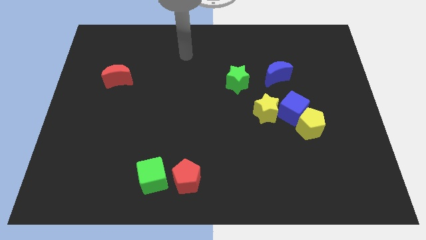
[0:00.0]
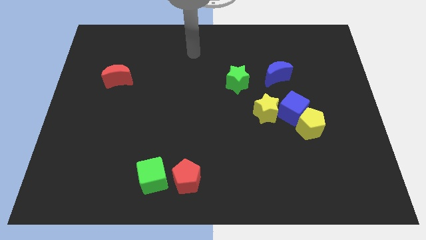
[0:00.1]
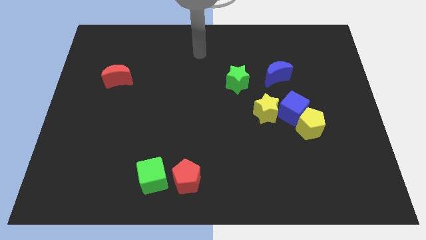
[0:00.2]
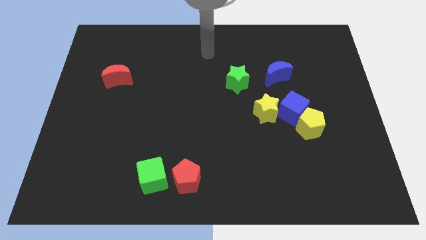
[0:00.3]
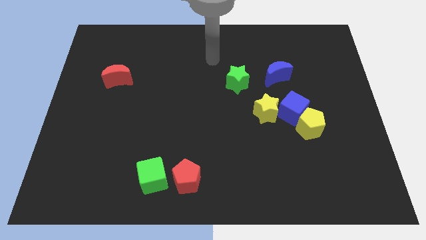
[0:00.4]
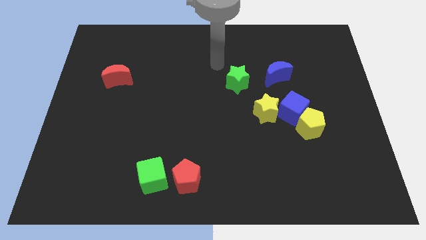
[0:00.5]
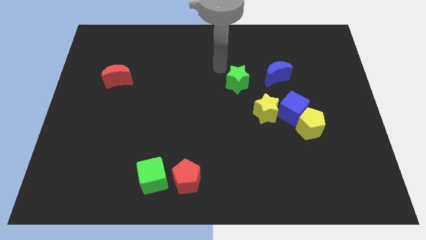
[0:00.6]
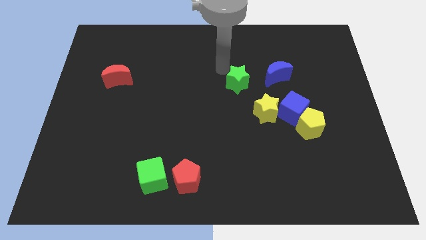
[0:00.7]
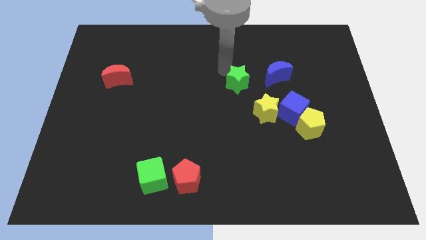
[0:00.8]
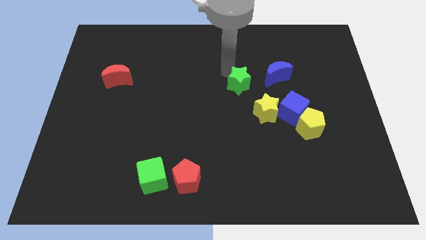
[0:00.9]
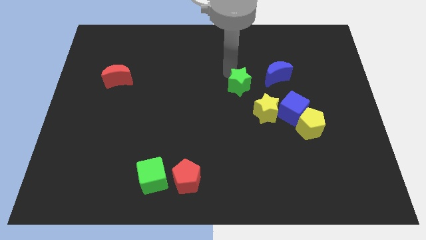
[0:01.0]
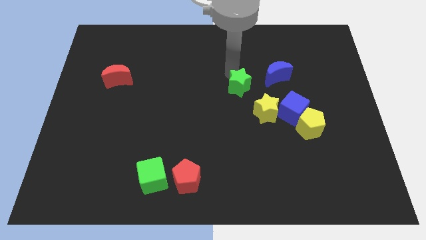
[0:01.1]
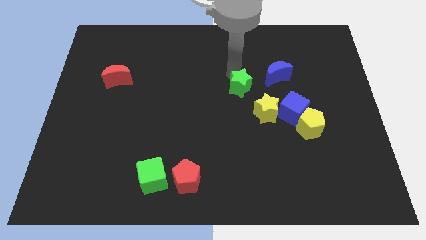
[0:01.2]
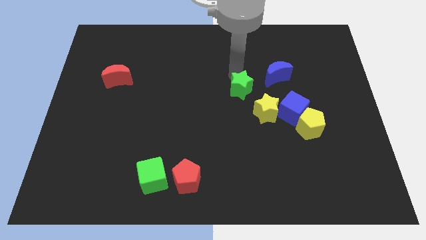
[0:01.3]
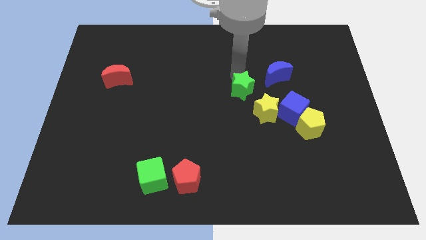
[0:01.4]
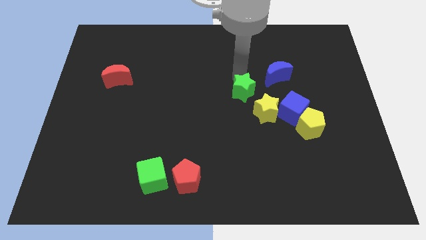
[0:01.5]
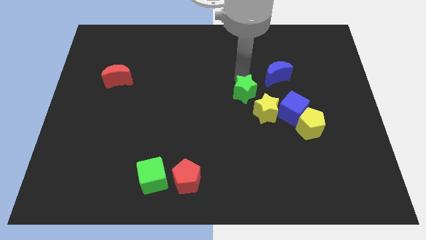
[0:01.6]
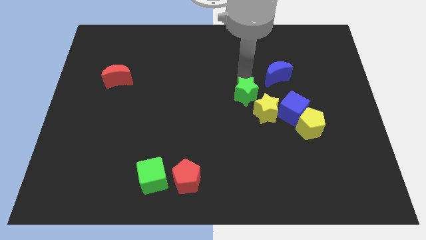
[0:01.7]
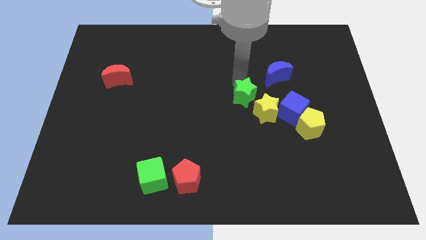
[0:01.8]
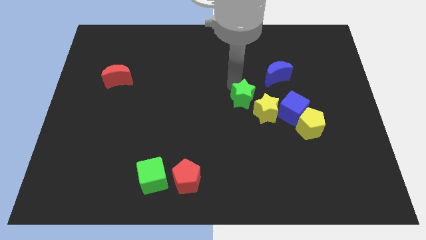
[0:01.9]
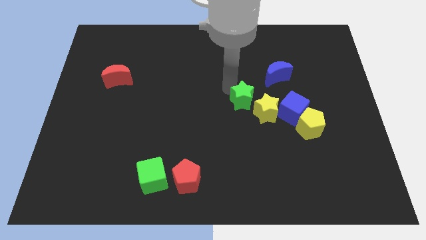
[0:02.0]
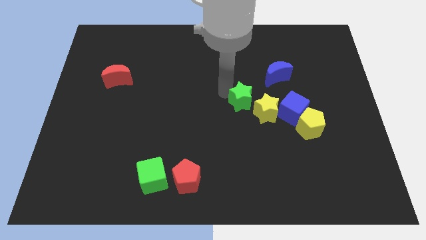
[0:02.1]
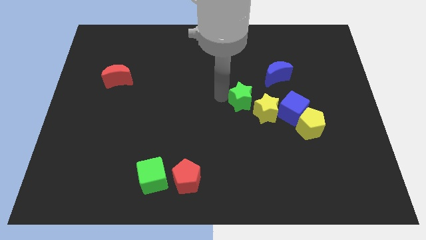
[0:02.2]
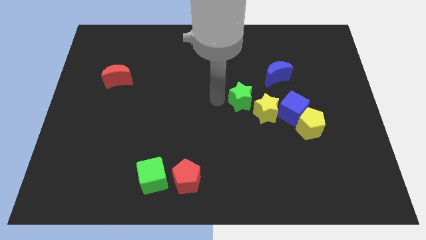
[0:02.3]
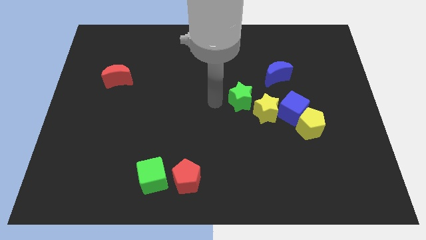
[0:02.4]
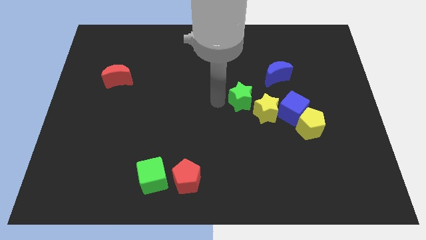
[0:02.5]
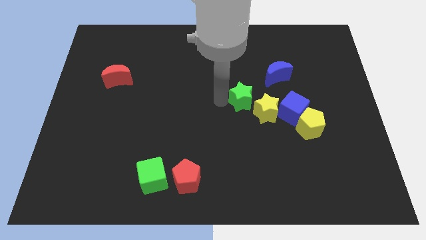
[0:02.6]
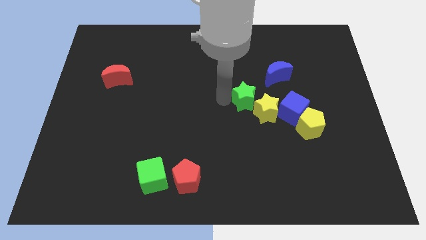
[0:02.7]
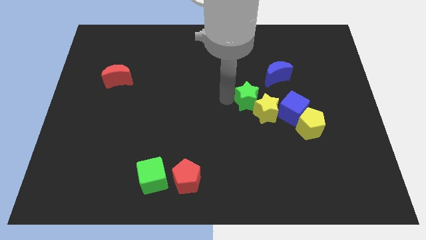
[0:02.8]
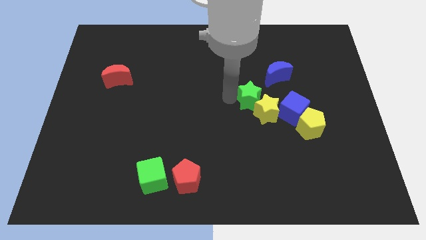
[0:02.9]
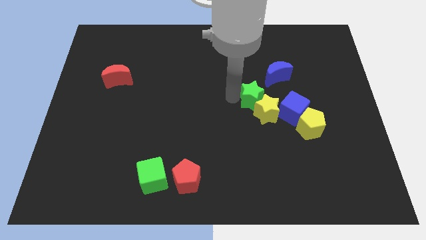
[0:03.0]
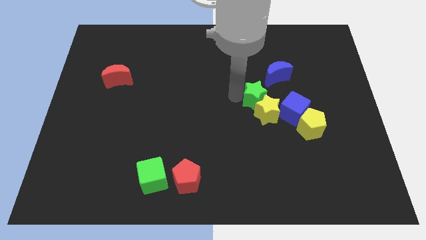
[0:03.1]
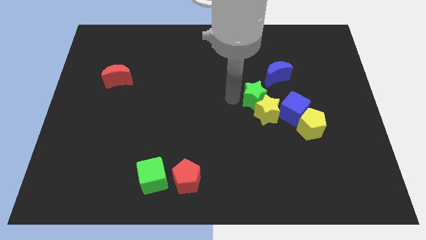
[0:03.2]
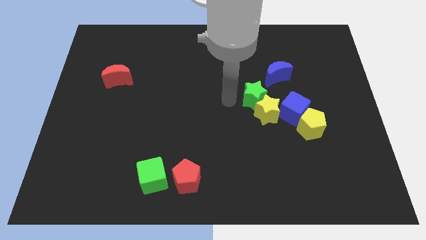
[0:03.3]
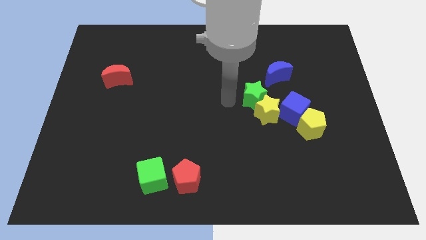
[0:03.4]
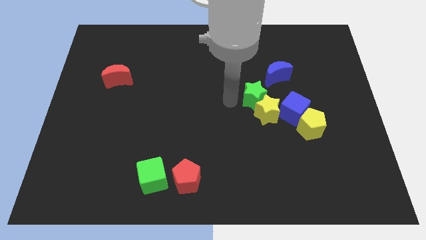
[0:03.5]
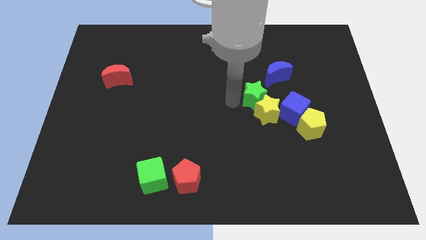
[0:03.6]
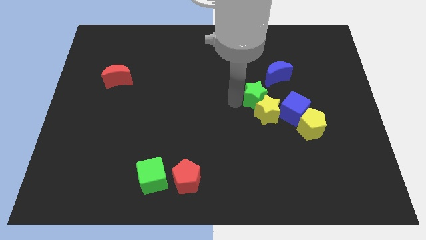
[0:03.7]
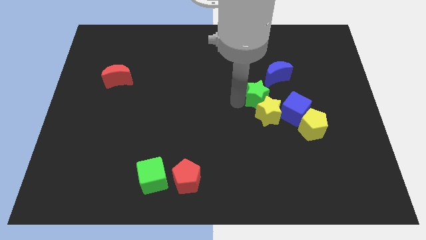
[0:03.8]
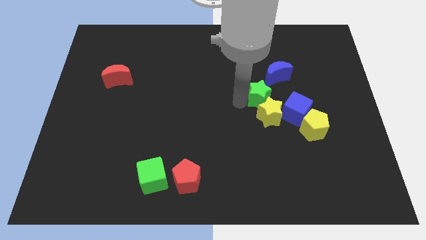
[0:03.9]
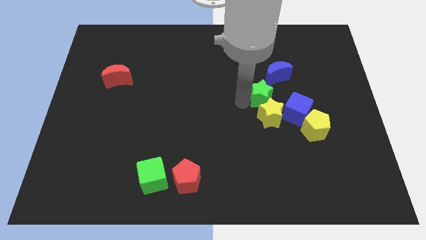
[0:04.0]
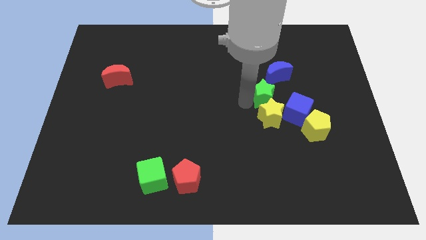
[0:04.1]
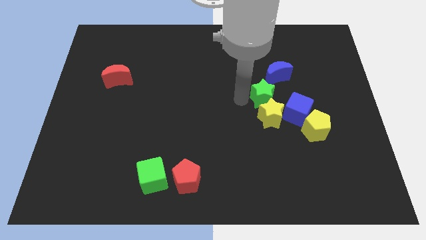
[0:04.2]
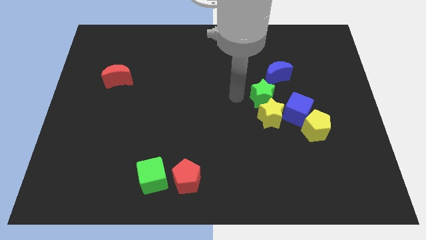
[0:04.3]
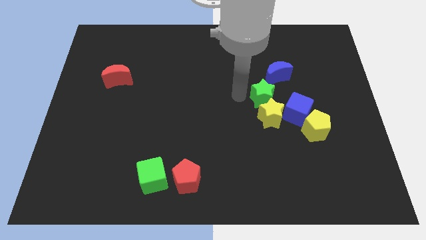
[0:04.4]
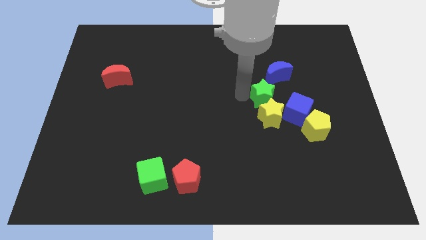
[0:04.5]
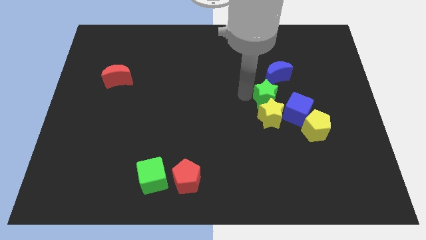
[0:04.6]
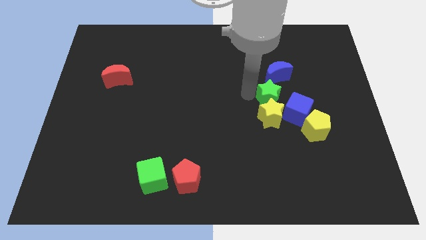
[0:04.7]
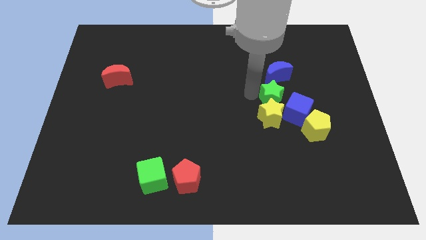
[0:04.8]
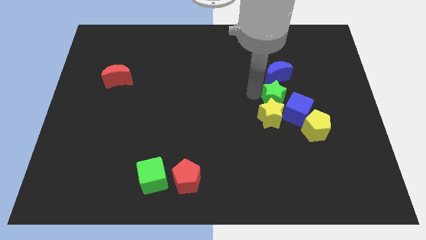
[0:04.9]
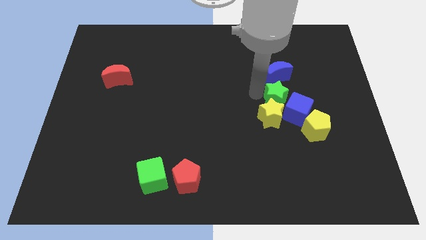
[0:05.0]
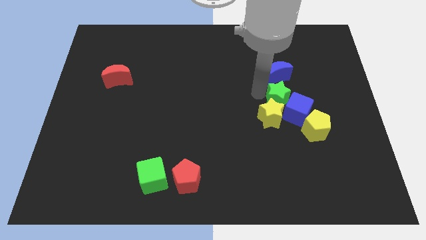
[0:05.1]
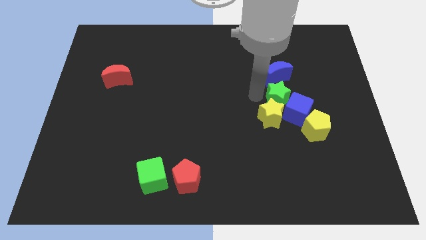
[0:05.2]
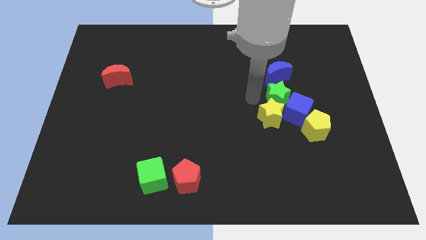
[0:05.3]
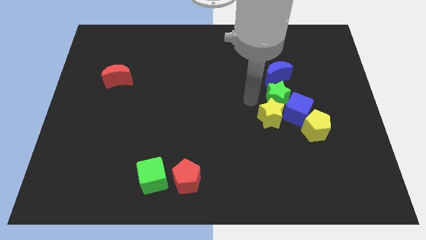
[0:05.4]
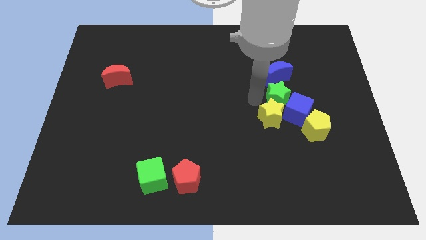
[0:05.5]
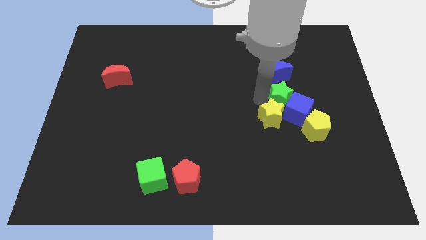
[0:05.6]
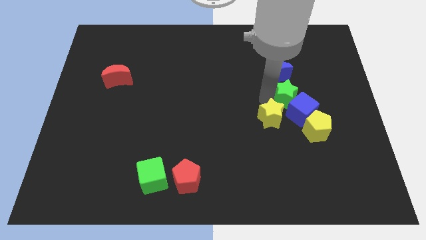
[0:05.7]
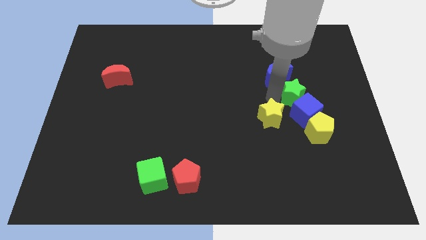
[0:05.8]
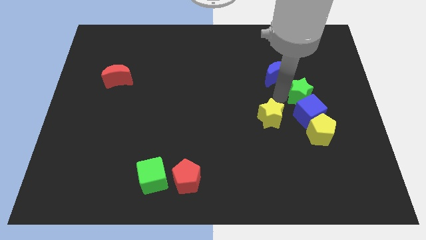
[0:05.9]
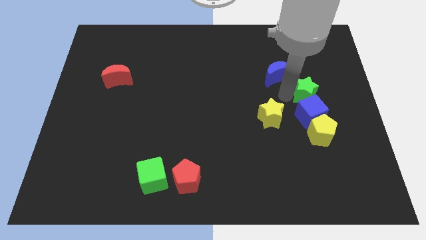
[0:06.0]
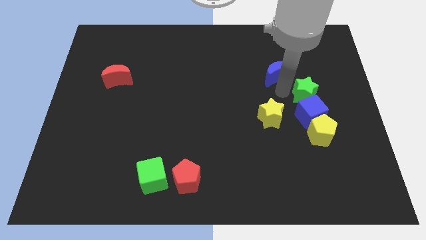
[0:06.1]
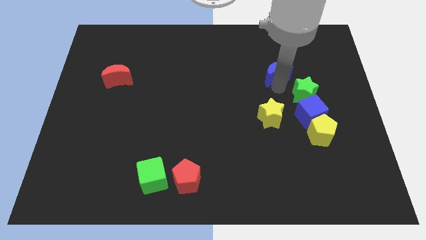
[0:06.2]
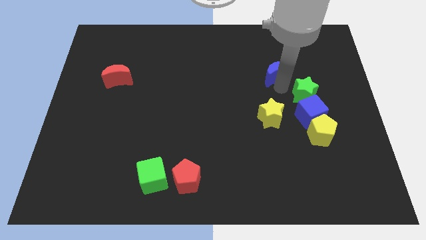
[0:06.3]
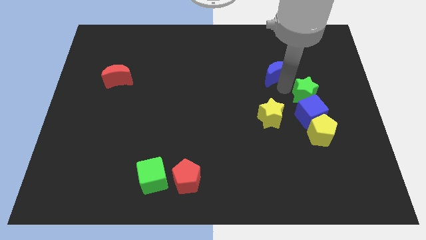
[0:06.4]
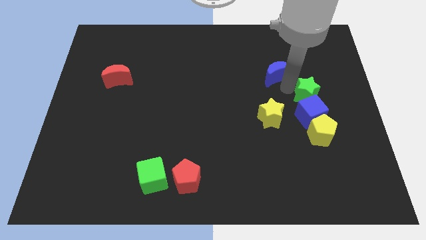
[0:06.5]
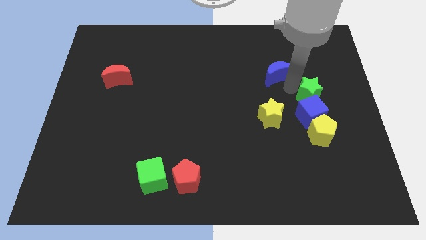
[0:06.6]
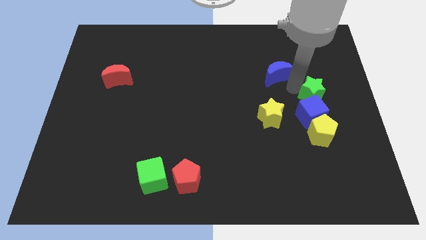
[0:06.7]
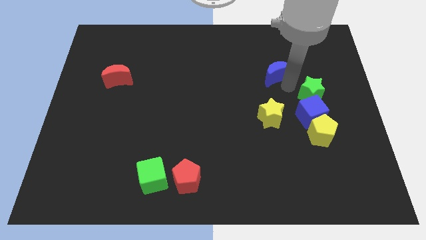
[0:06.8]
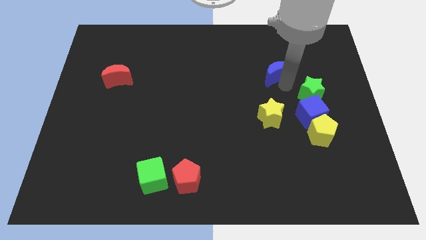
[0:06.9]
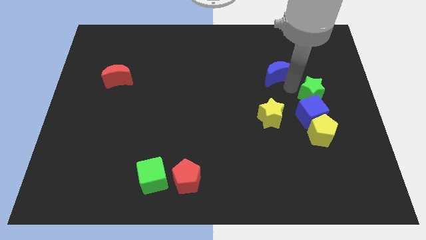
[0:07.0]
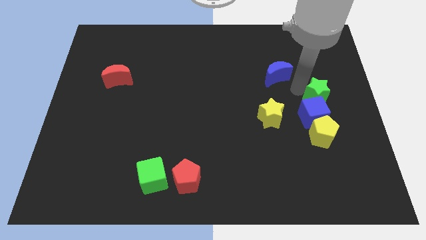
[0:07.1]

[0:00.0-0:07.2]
move the green star to the center right
